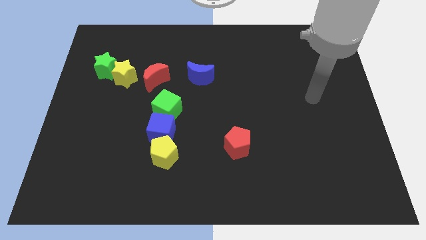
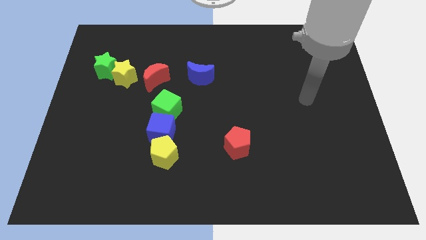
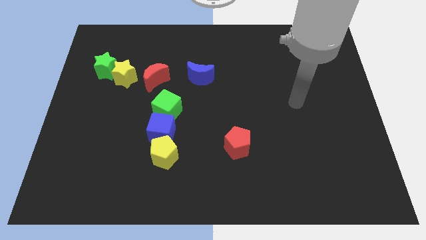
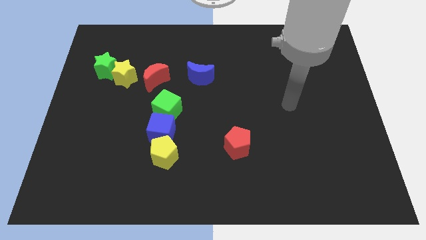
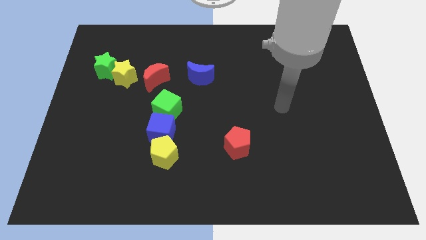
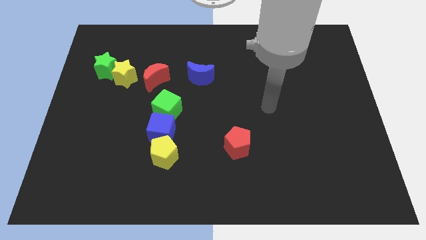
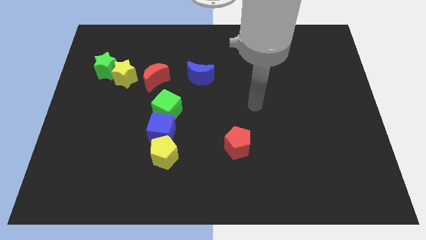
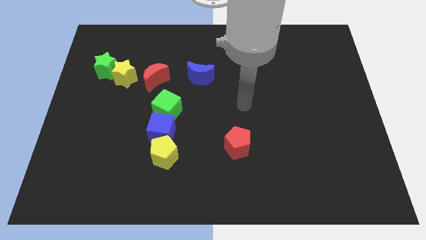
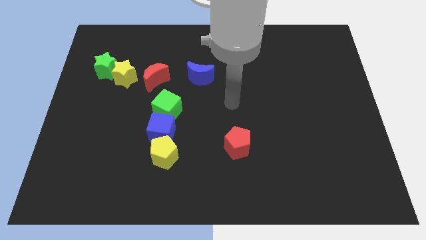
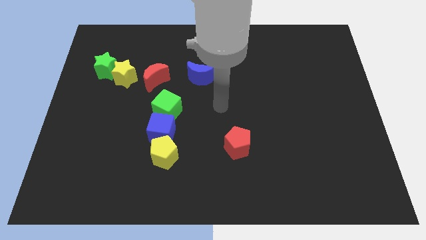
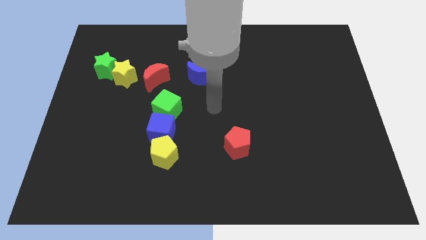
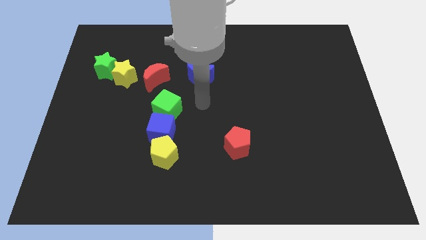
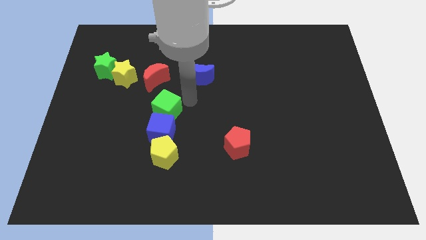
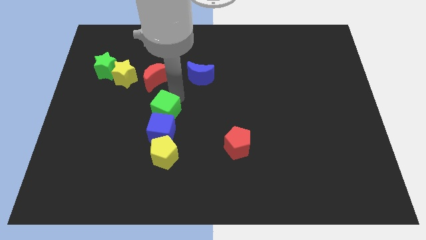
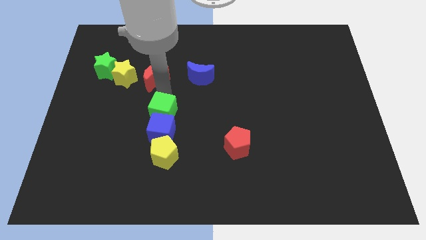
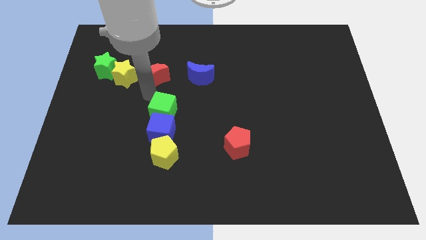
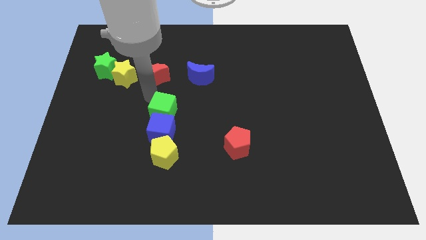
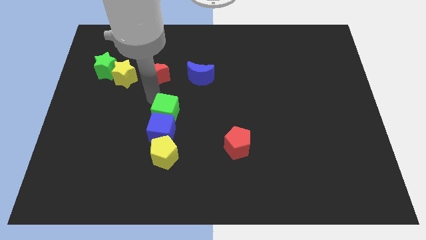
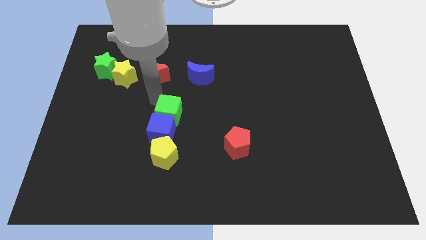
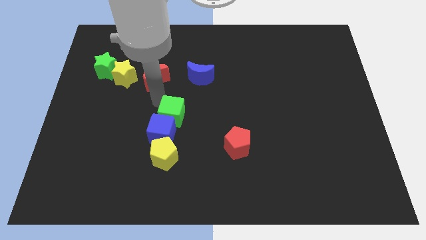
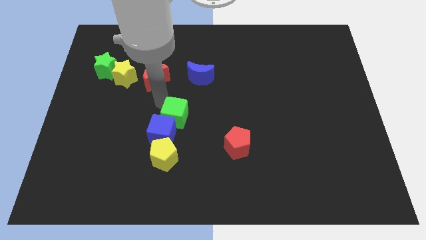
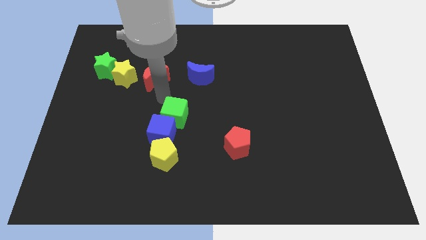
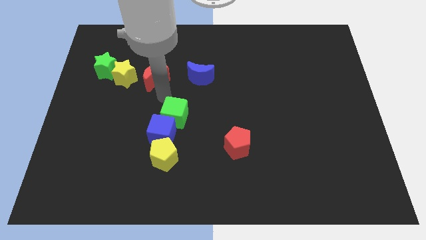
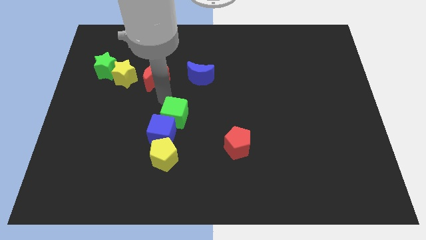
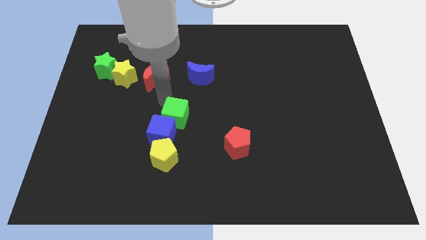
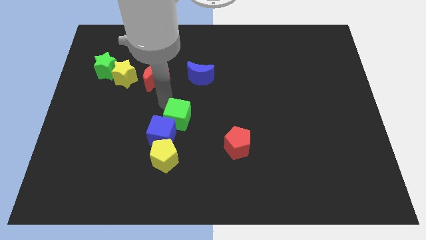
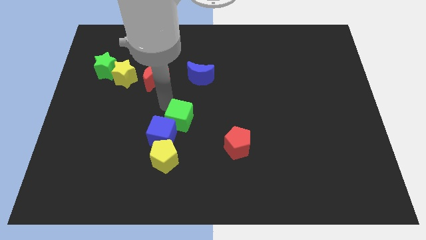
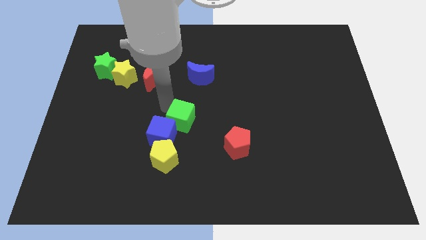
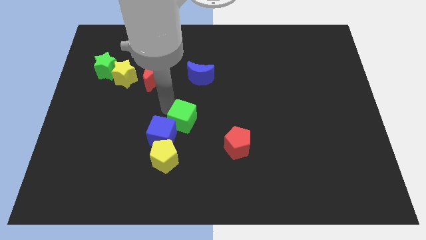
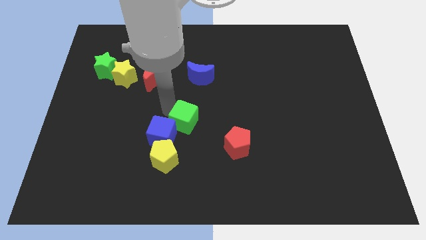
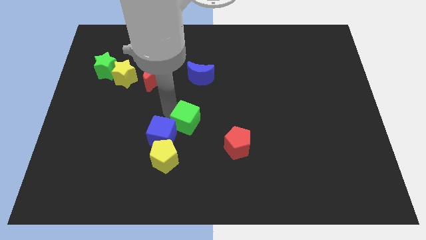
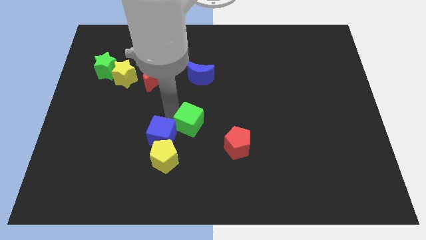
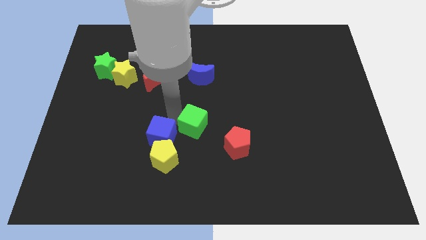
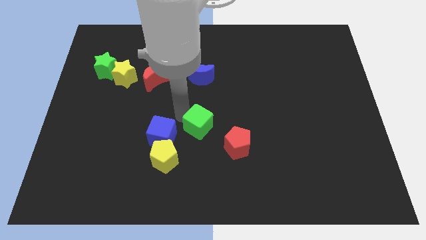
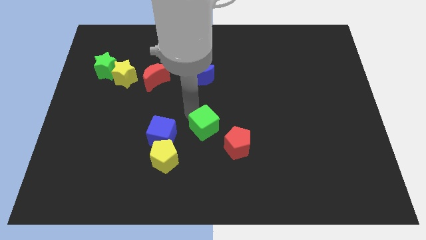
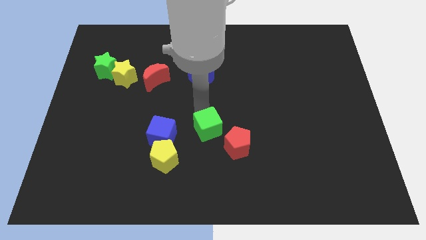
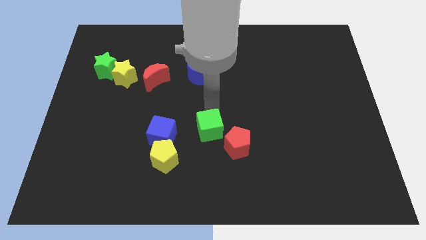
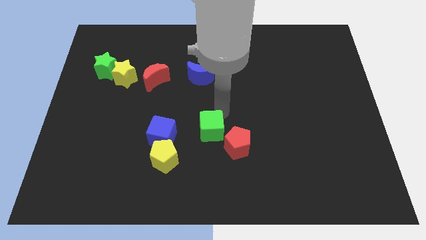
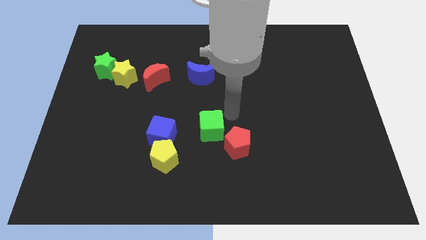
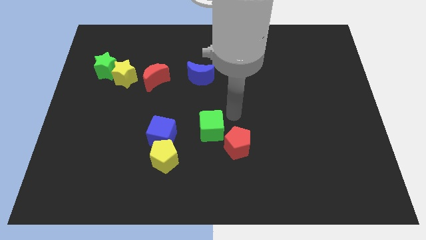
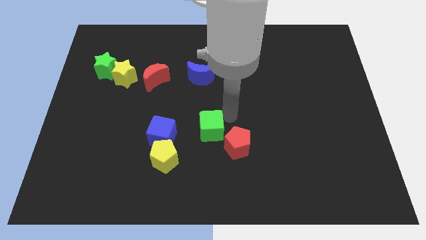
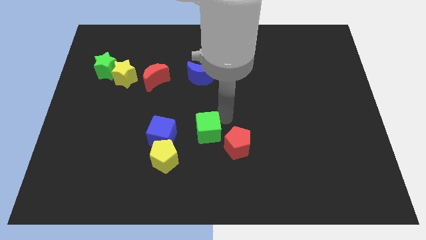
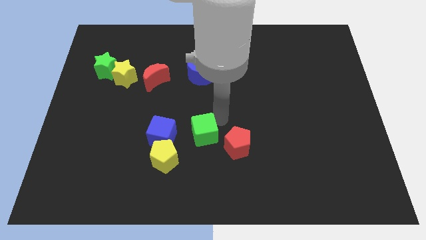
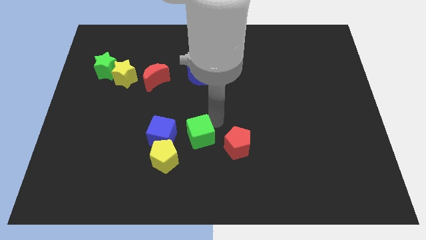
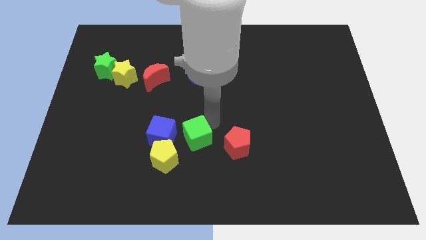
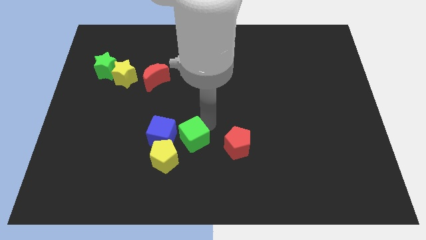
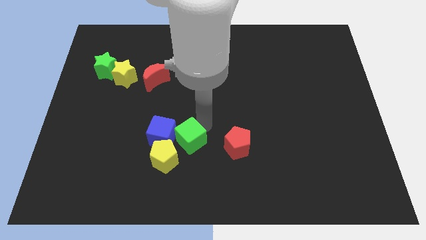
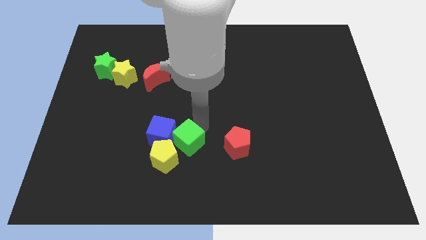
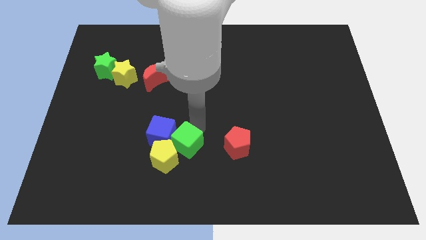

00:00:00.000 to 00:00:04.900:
push the green cube next to the yellow pentagon

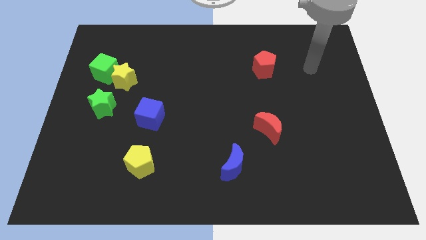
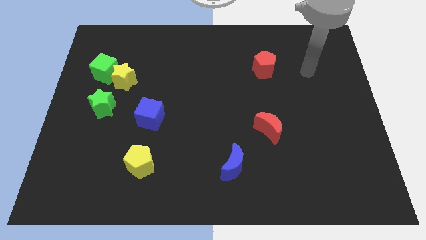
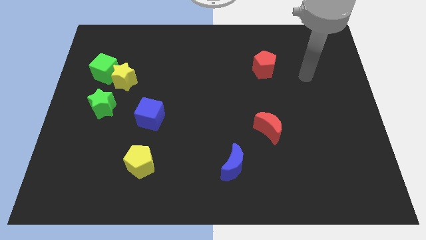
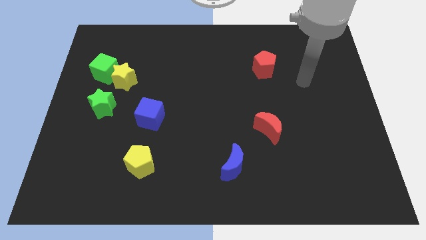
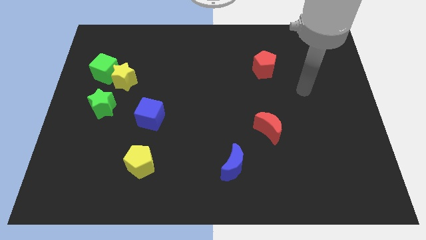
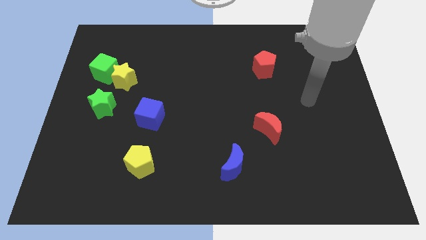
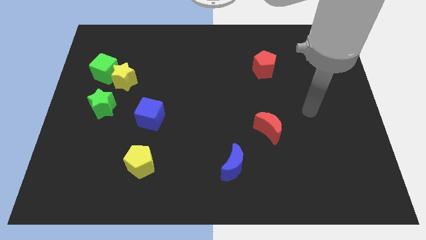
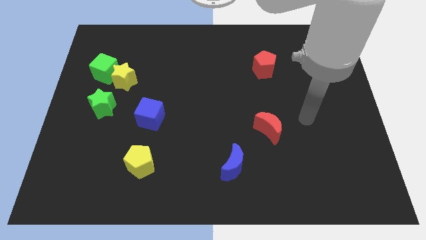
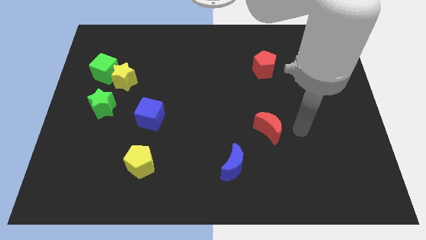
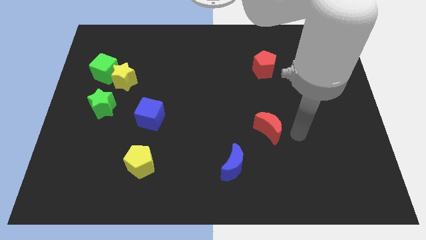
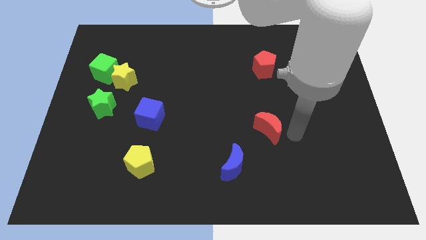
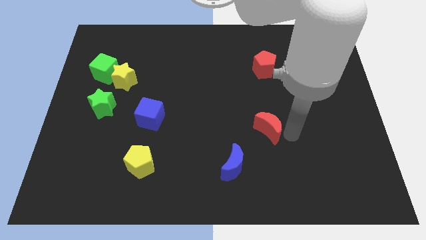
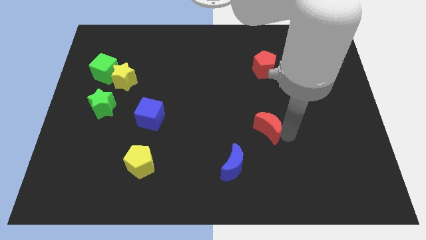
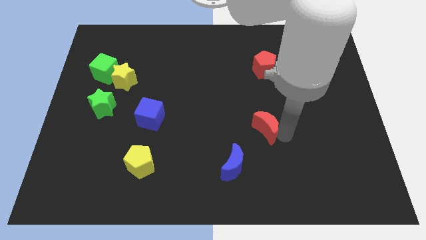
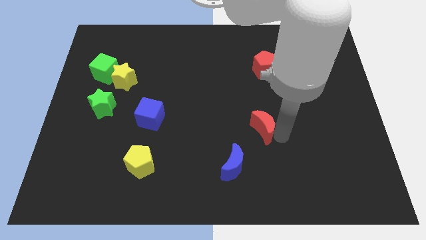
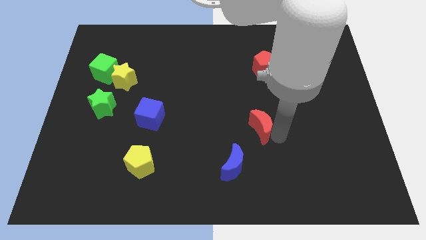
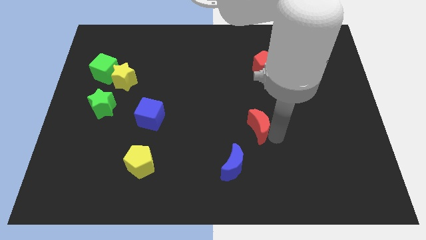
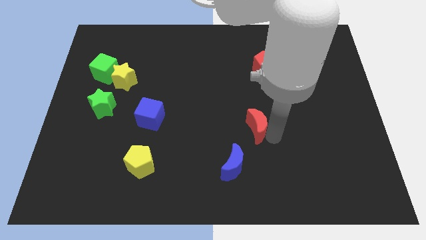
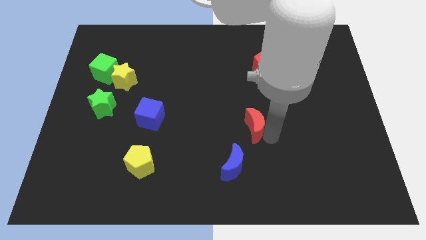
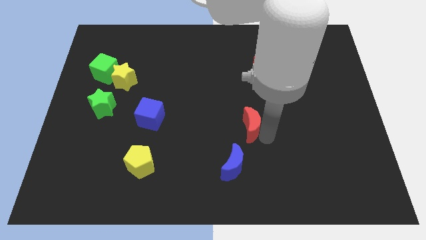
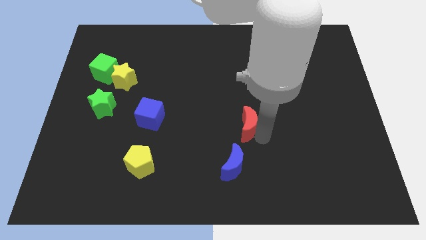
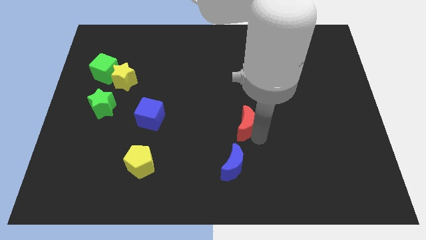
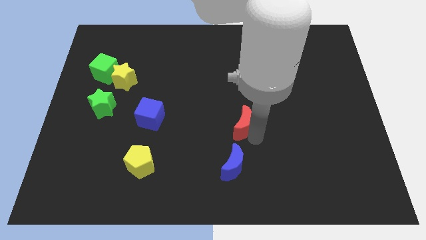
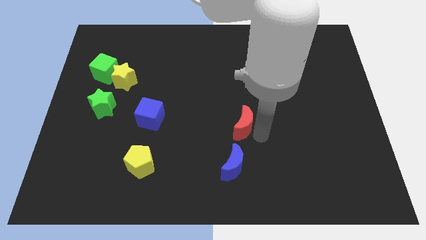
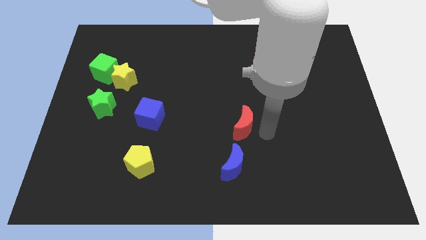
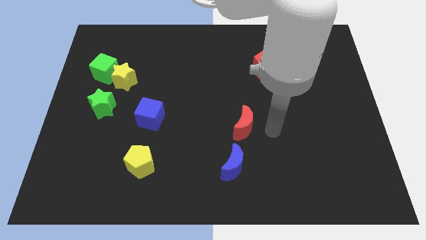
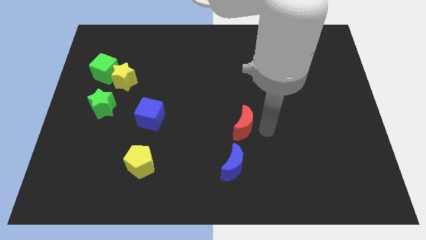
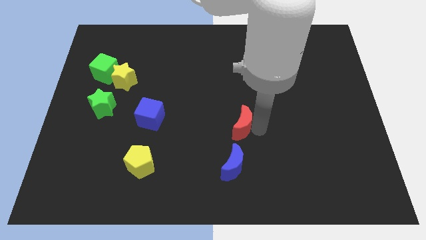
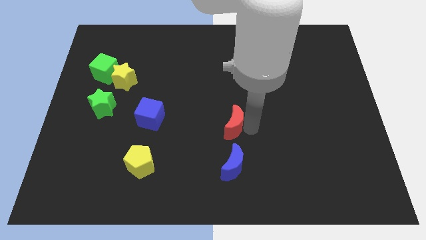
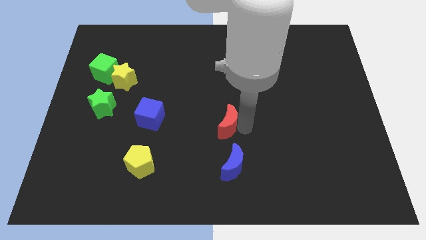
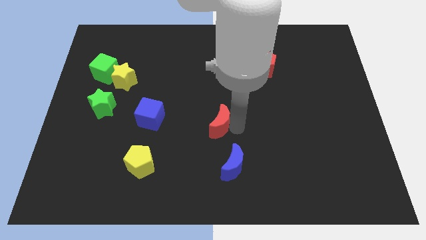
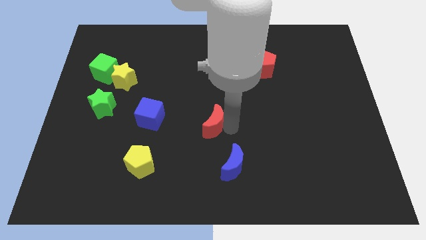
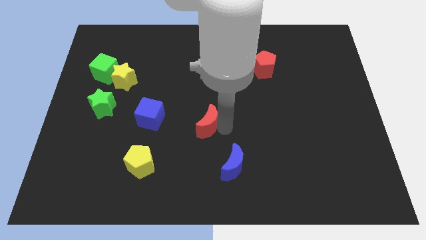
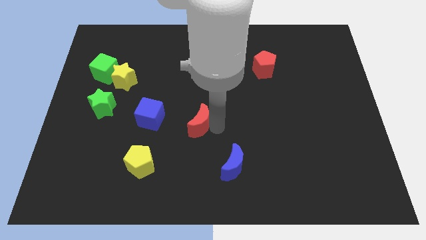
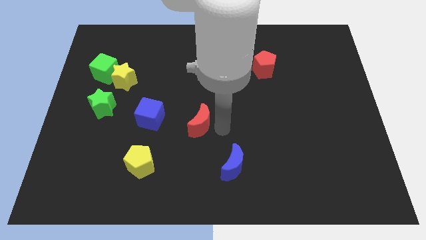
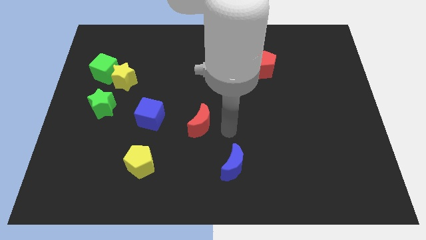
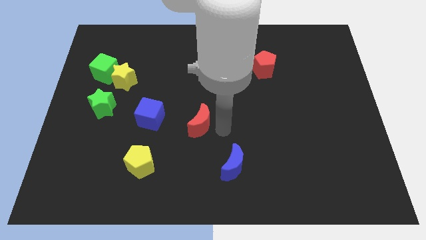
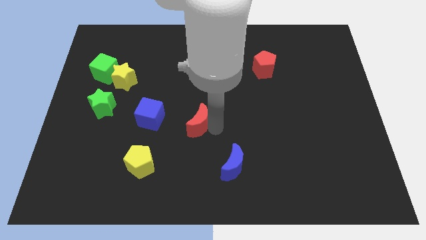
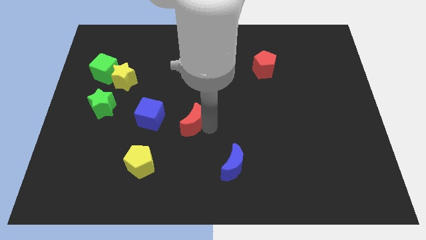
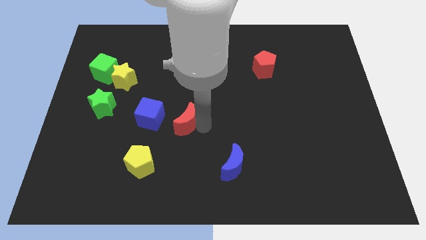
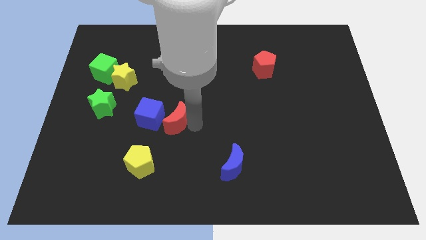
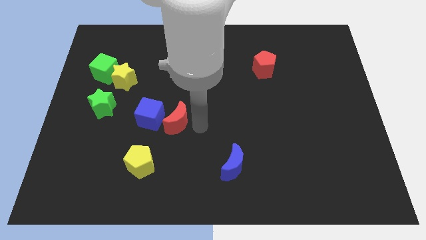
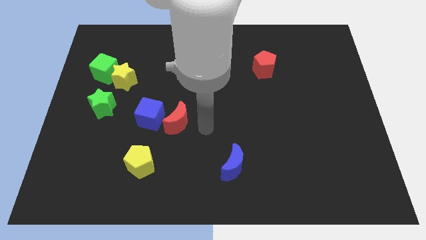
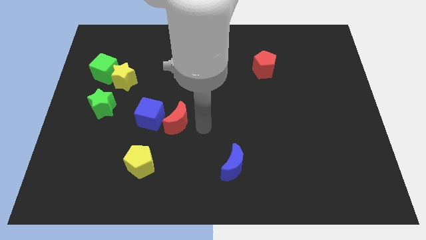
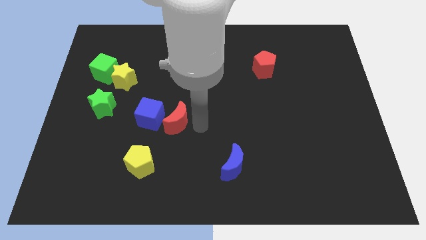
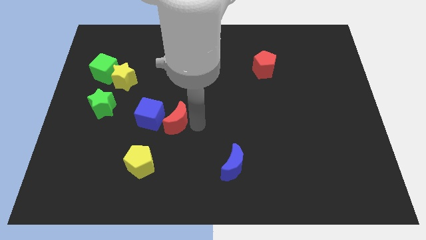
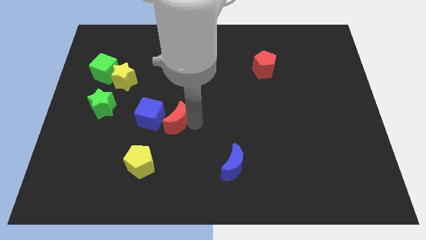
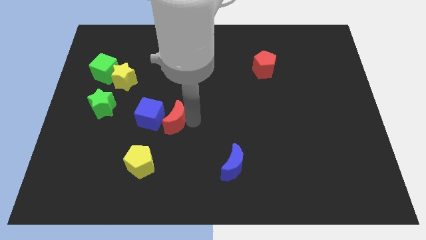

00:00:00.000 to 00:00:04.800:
push the red moon next to the blue cube
